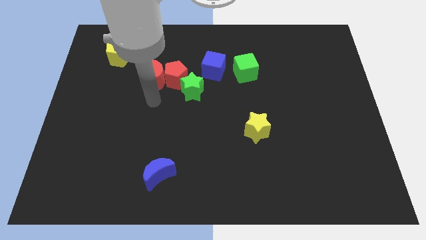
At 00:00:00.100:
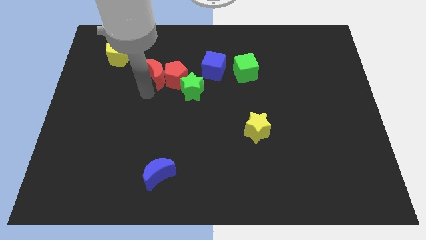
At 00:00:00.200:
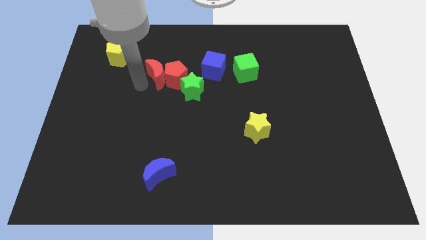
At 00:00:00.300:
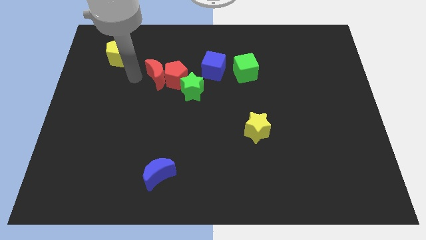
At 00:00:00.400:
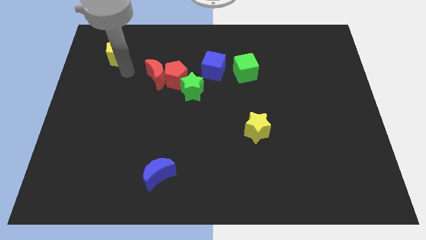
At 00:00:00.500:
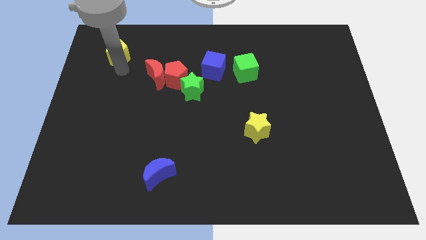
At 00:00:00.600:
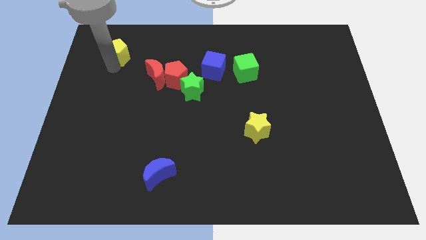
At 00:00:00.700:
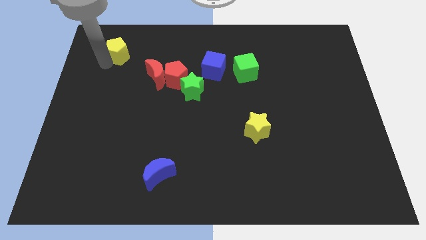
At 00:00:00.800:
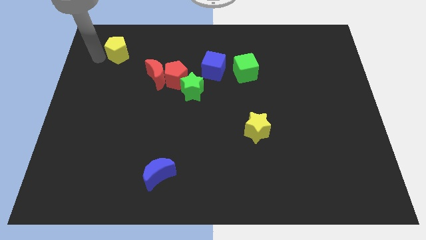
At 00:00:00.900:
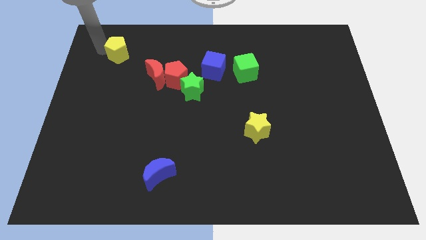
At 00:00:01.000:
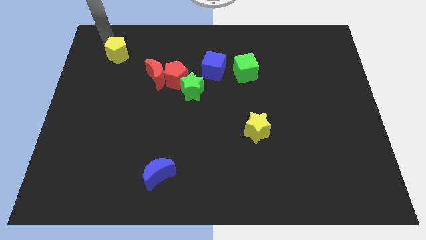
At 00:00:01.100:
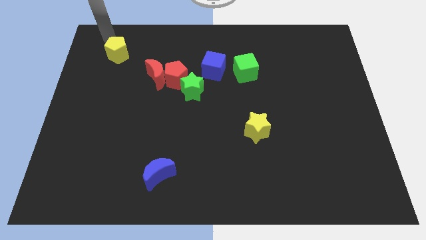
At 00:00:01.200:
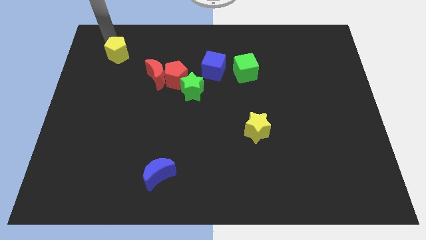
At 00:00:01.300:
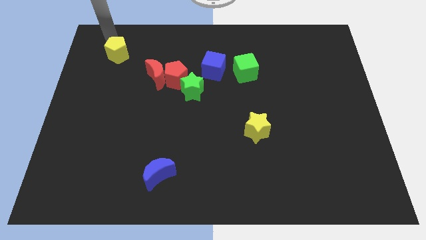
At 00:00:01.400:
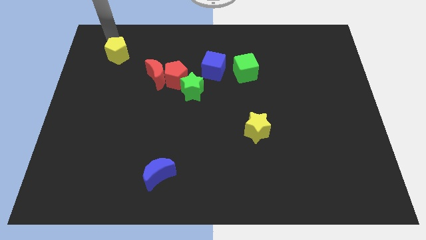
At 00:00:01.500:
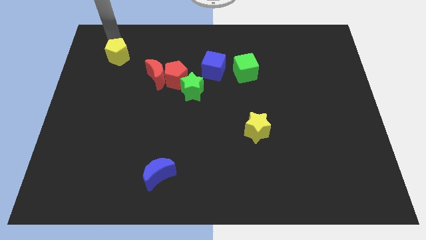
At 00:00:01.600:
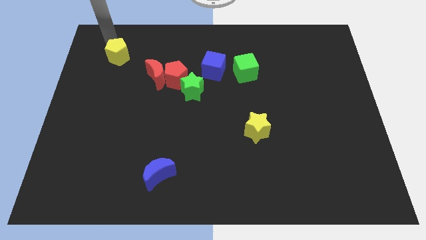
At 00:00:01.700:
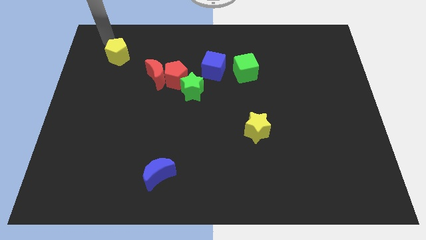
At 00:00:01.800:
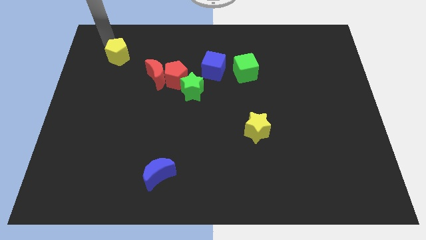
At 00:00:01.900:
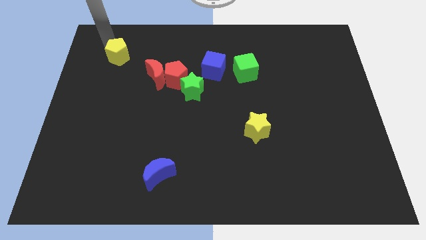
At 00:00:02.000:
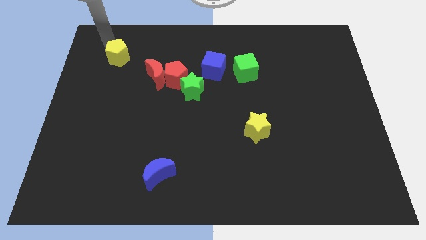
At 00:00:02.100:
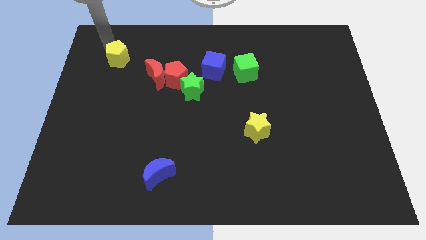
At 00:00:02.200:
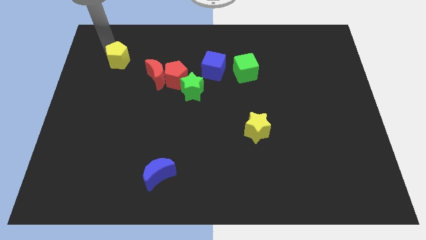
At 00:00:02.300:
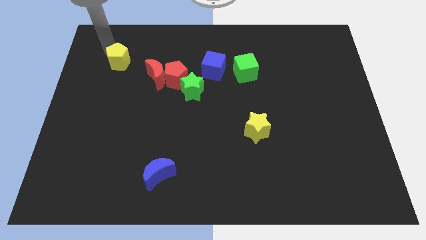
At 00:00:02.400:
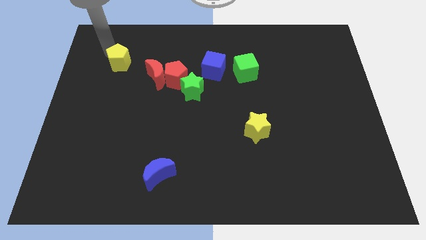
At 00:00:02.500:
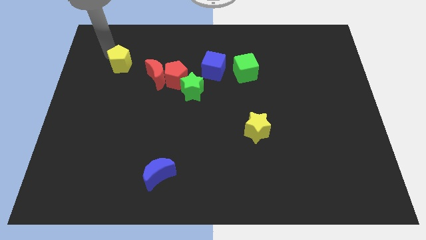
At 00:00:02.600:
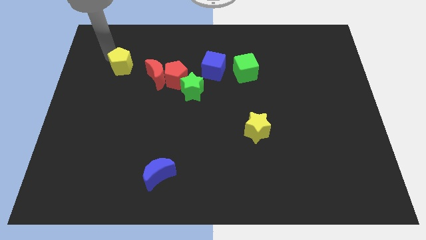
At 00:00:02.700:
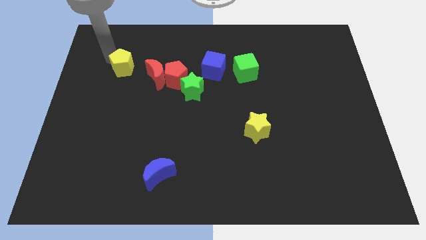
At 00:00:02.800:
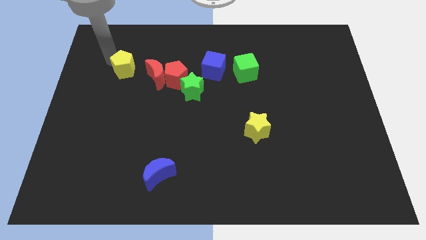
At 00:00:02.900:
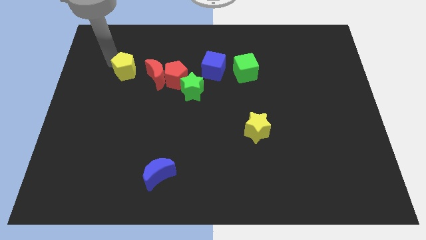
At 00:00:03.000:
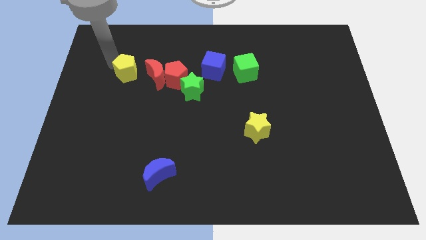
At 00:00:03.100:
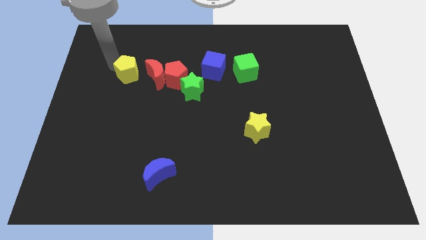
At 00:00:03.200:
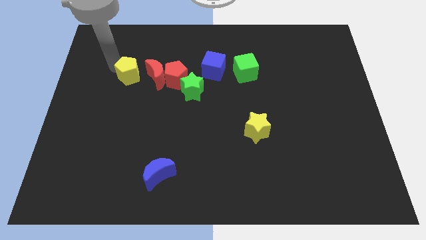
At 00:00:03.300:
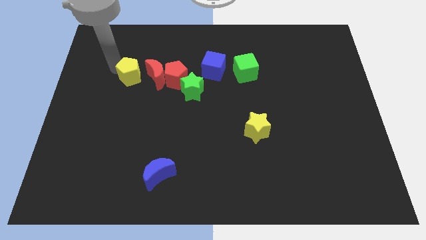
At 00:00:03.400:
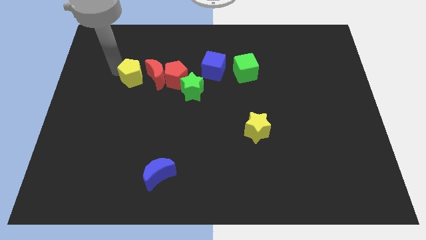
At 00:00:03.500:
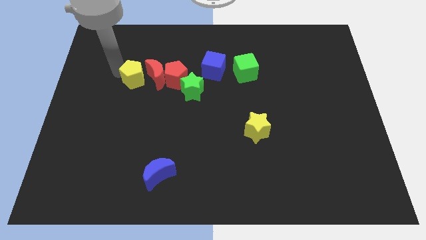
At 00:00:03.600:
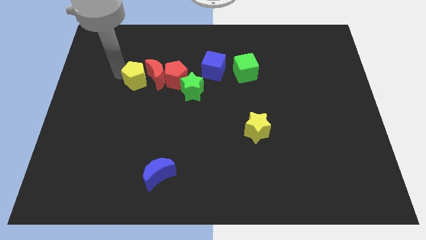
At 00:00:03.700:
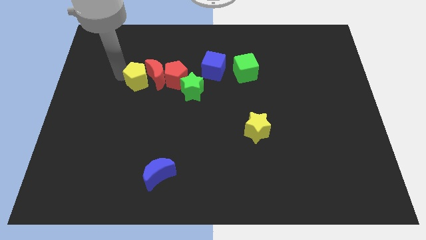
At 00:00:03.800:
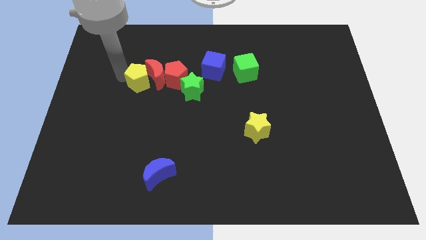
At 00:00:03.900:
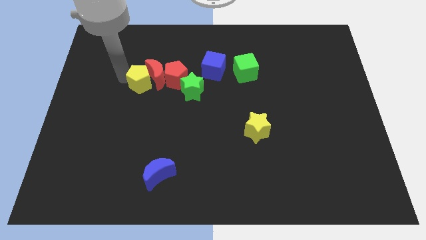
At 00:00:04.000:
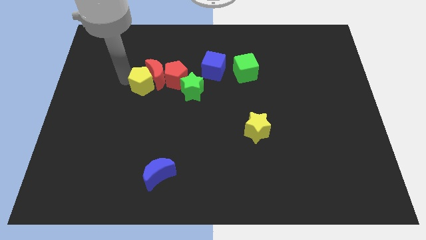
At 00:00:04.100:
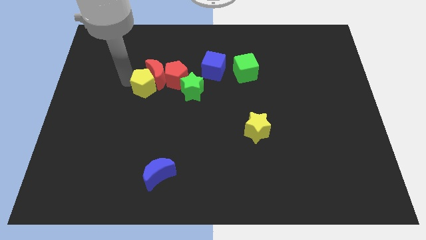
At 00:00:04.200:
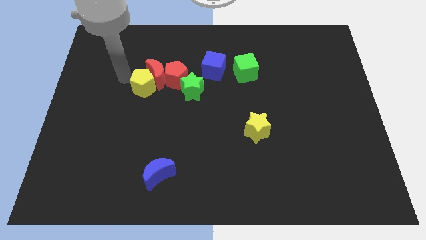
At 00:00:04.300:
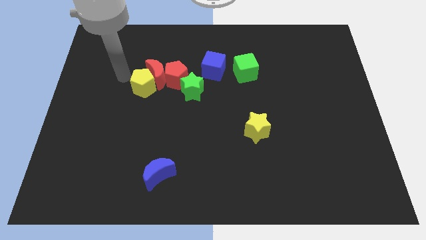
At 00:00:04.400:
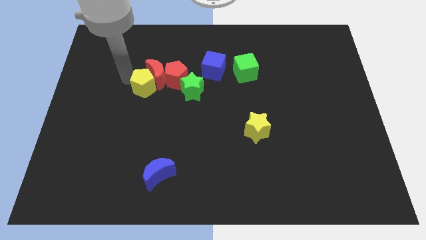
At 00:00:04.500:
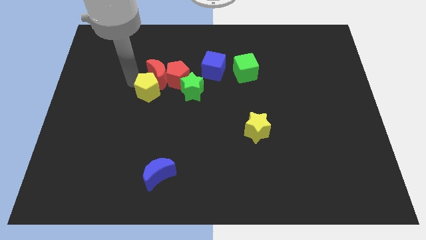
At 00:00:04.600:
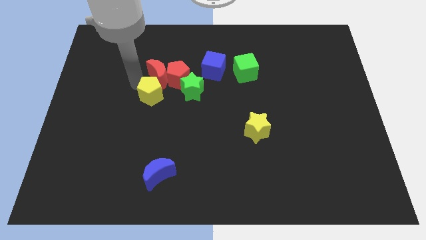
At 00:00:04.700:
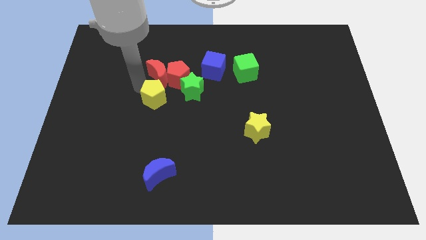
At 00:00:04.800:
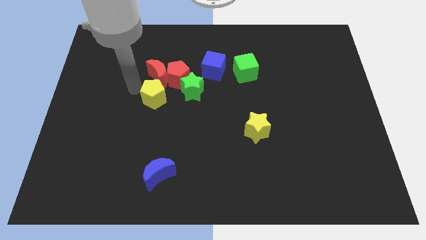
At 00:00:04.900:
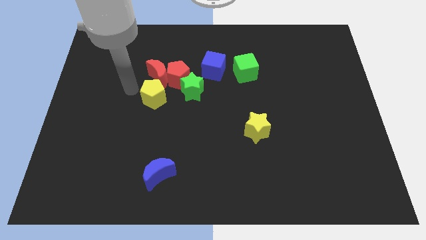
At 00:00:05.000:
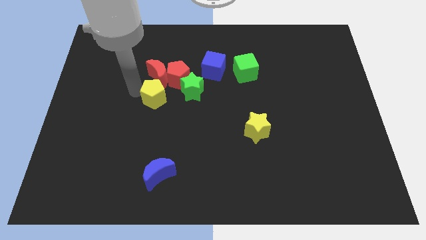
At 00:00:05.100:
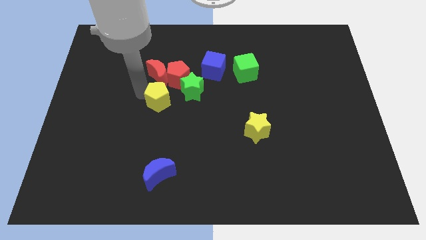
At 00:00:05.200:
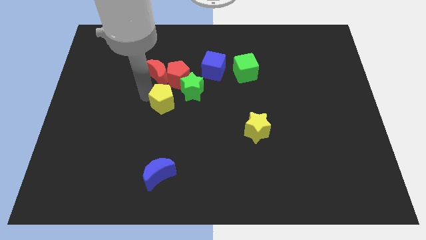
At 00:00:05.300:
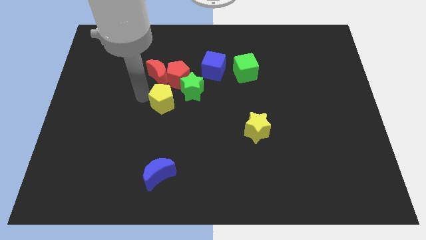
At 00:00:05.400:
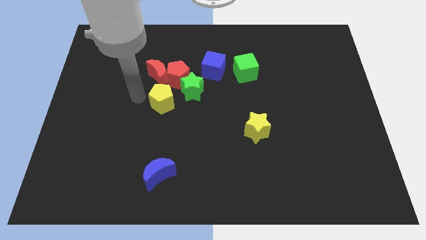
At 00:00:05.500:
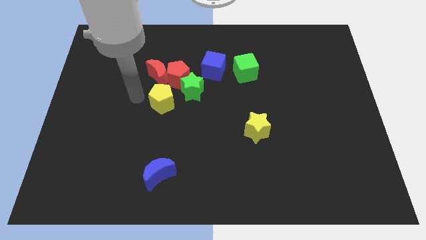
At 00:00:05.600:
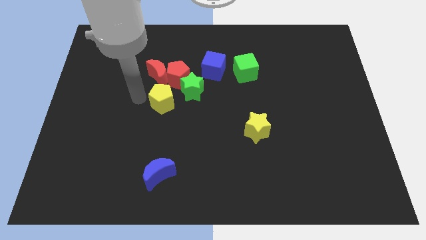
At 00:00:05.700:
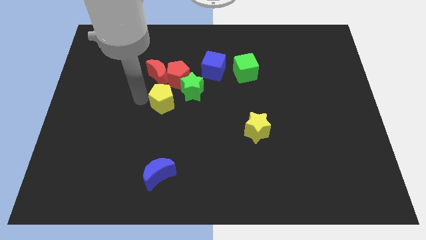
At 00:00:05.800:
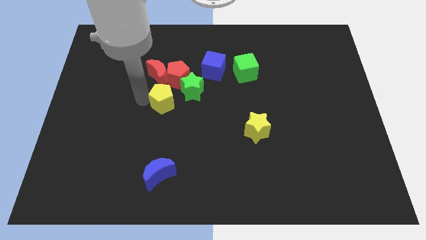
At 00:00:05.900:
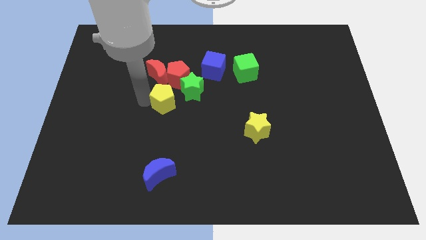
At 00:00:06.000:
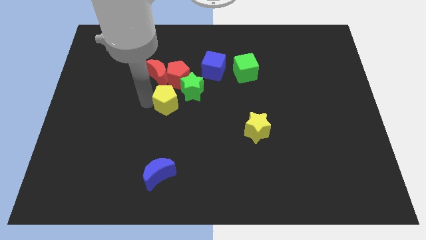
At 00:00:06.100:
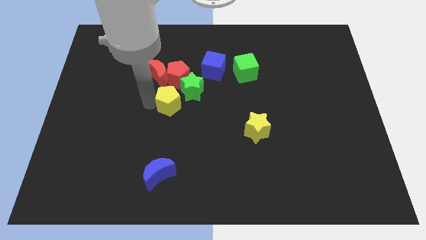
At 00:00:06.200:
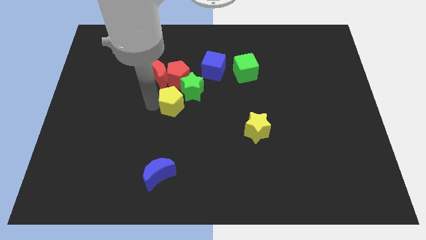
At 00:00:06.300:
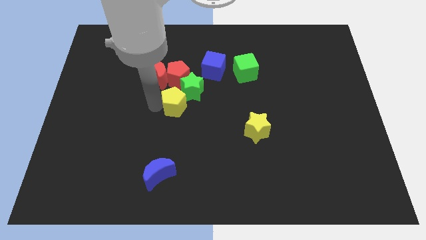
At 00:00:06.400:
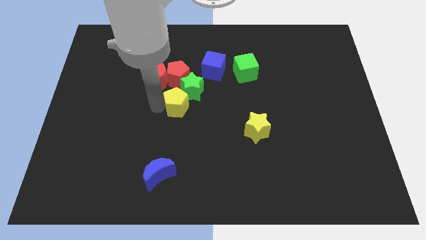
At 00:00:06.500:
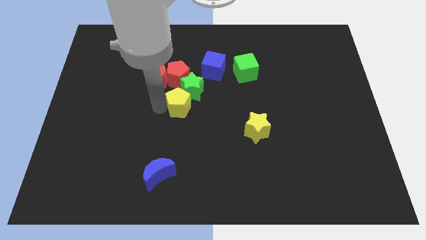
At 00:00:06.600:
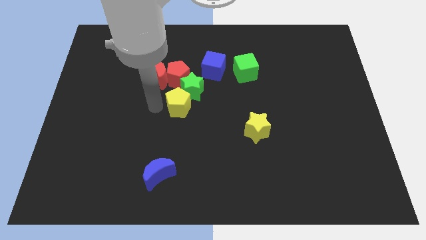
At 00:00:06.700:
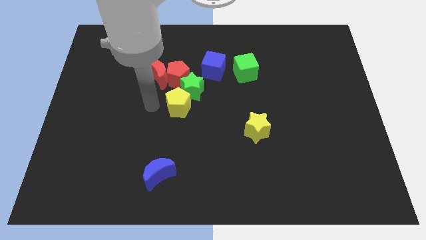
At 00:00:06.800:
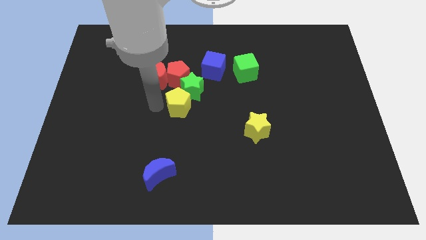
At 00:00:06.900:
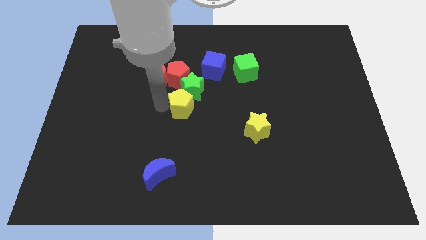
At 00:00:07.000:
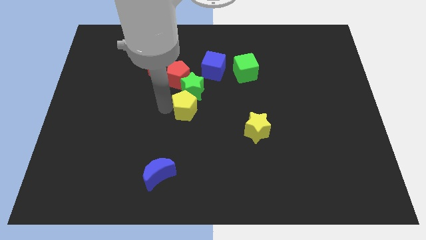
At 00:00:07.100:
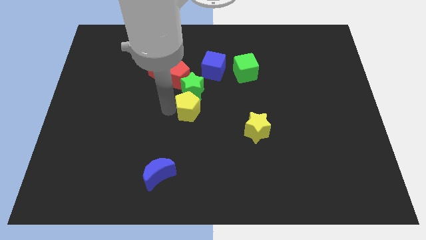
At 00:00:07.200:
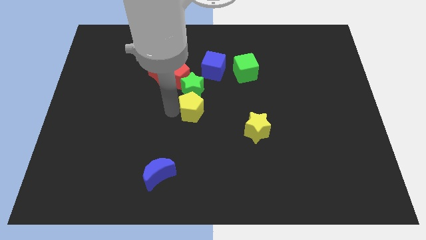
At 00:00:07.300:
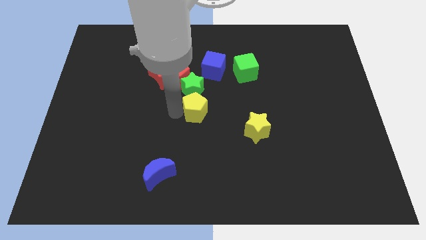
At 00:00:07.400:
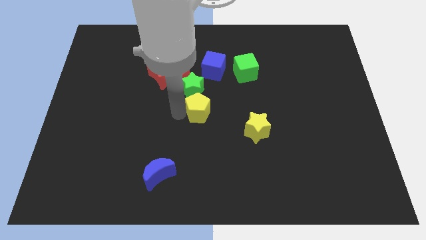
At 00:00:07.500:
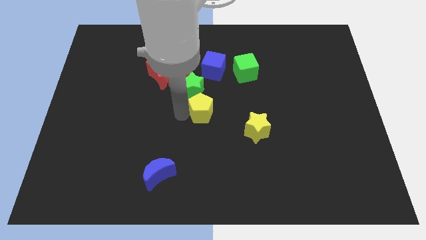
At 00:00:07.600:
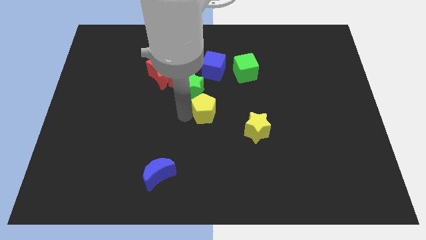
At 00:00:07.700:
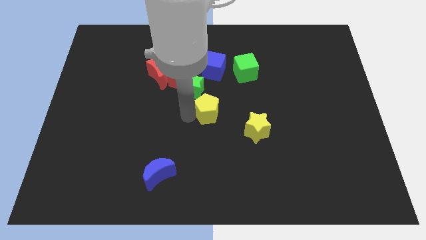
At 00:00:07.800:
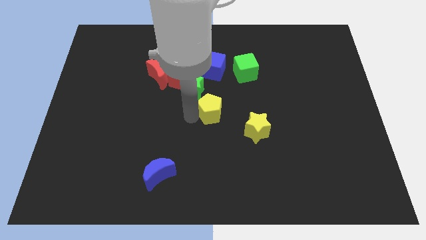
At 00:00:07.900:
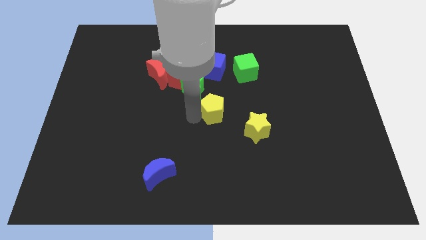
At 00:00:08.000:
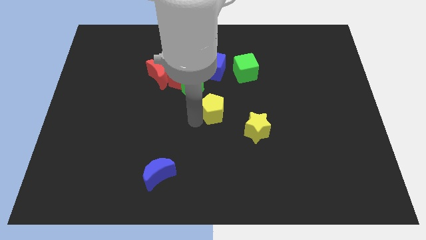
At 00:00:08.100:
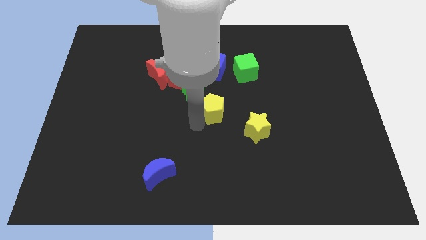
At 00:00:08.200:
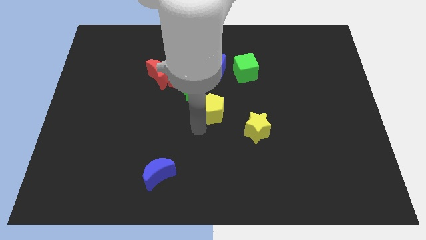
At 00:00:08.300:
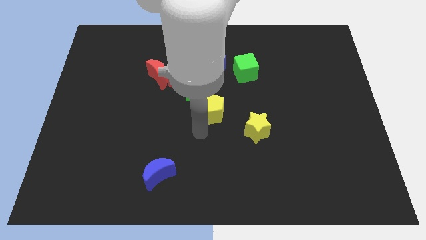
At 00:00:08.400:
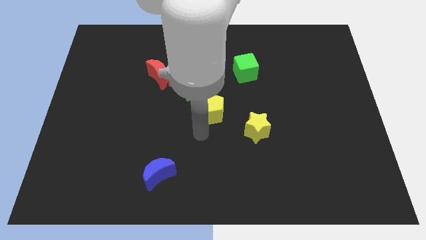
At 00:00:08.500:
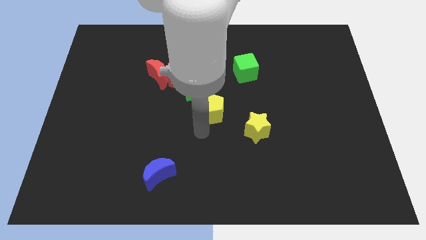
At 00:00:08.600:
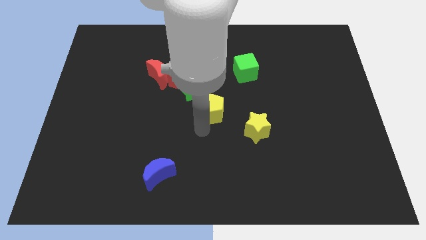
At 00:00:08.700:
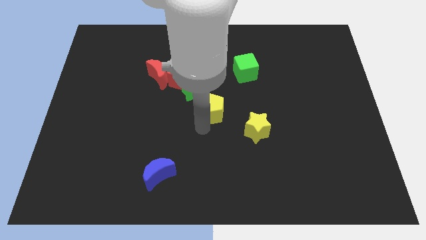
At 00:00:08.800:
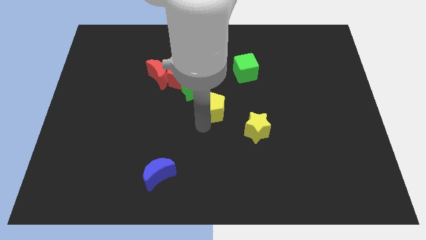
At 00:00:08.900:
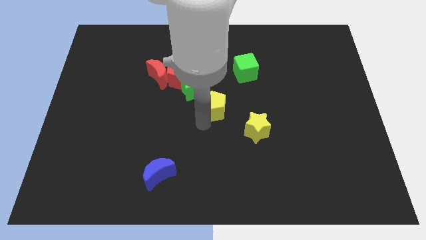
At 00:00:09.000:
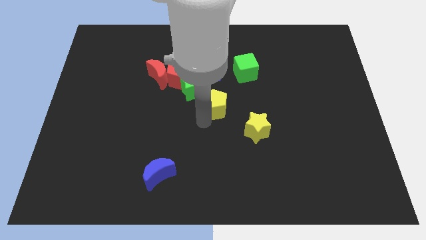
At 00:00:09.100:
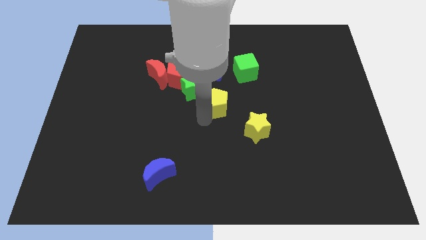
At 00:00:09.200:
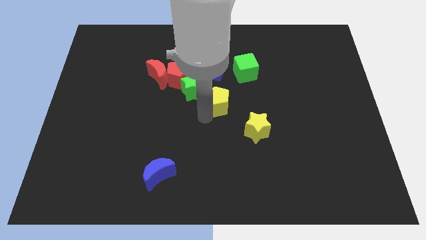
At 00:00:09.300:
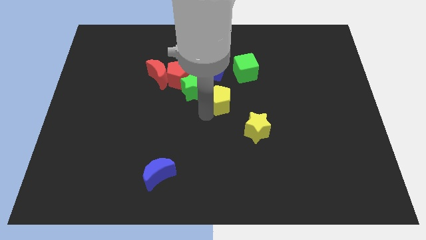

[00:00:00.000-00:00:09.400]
push the yellow pentagon to the bottom left of the green cube
